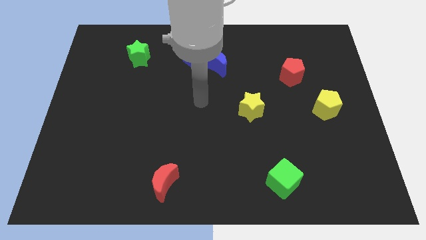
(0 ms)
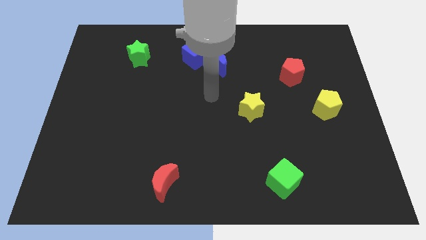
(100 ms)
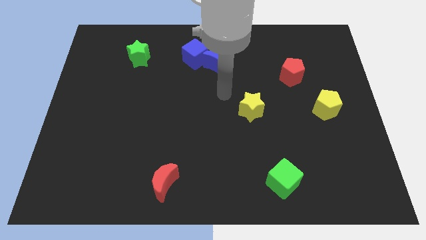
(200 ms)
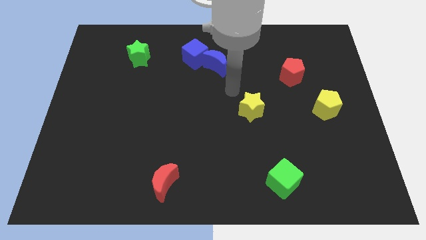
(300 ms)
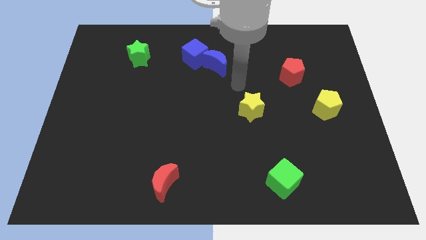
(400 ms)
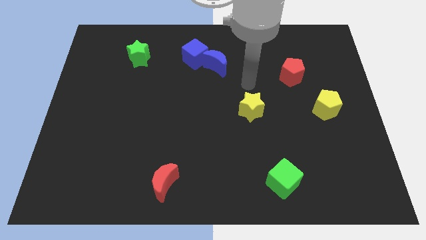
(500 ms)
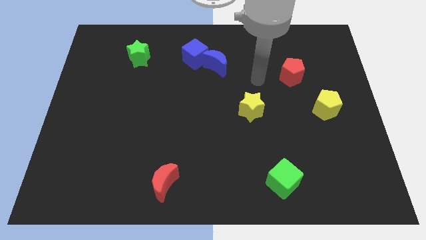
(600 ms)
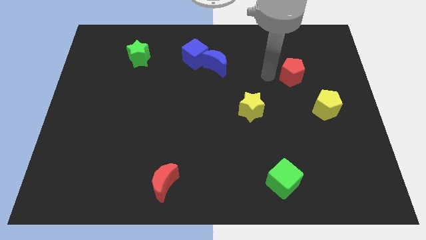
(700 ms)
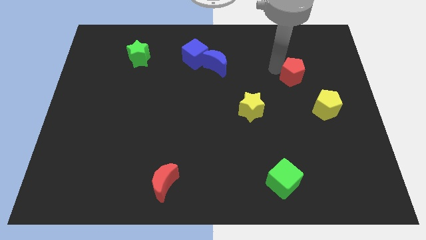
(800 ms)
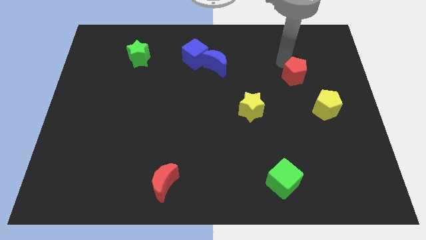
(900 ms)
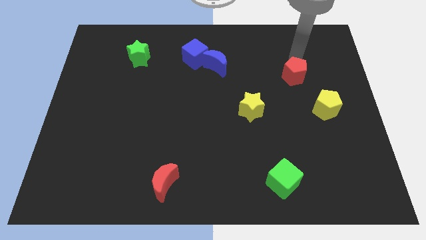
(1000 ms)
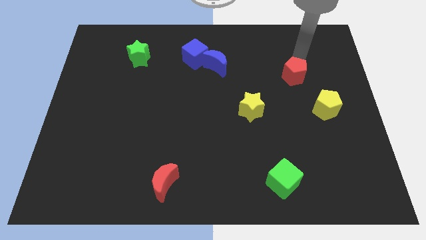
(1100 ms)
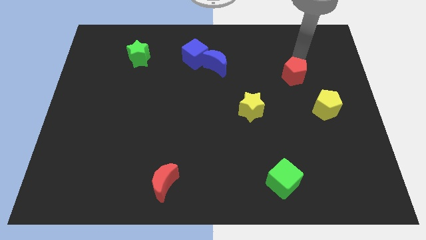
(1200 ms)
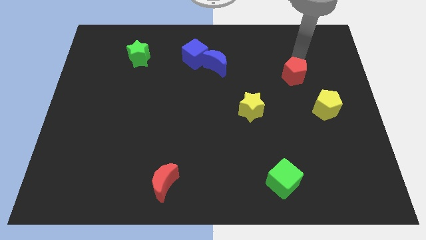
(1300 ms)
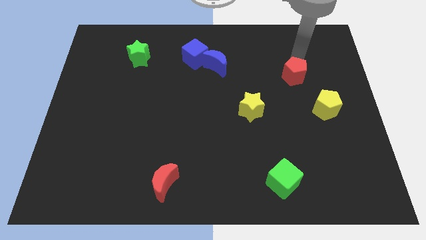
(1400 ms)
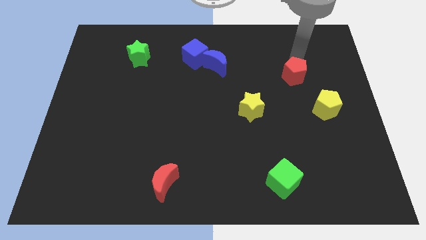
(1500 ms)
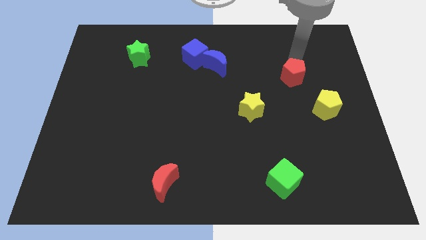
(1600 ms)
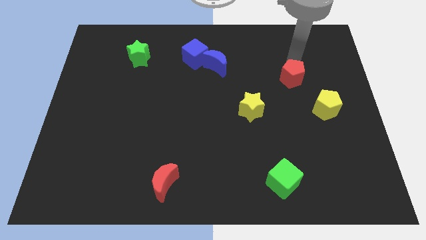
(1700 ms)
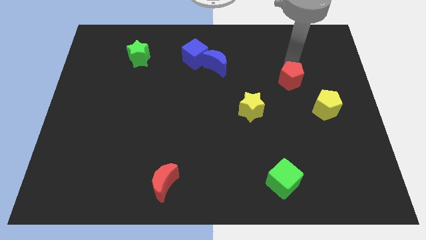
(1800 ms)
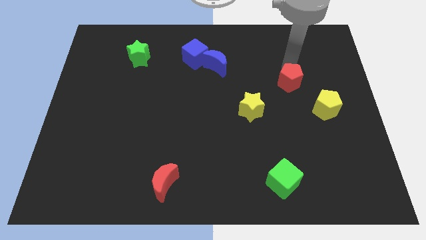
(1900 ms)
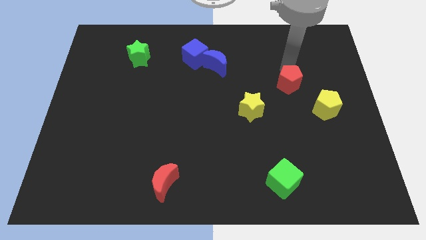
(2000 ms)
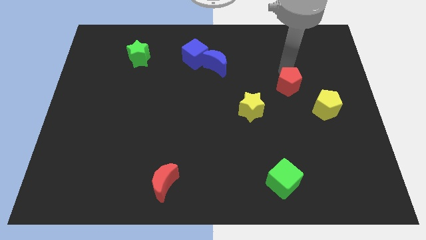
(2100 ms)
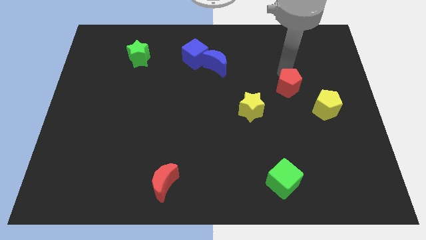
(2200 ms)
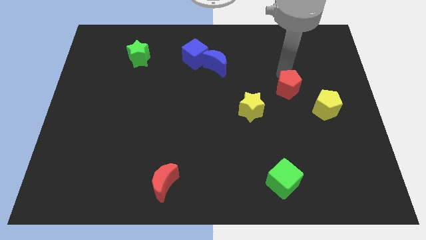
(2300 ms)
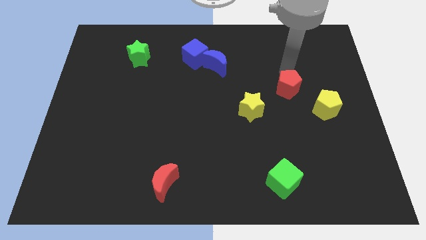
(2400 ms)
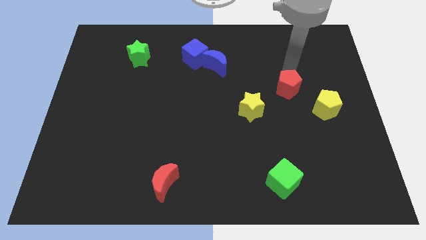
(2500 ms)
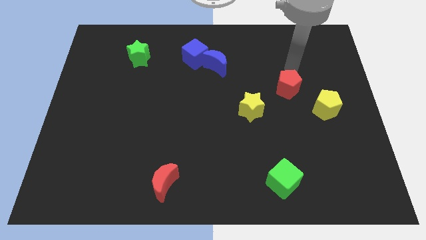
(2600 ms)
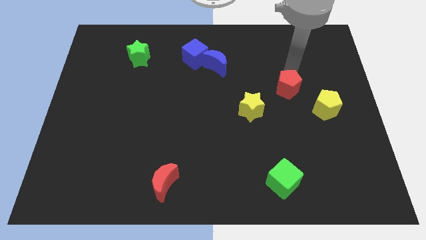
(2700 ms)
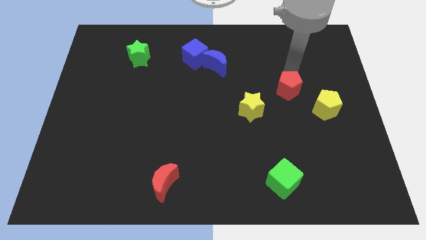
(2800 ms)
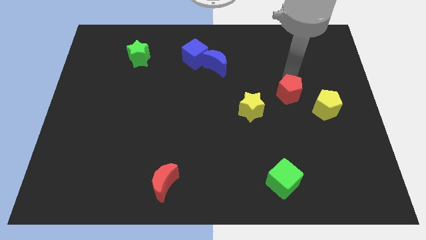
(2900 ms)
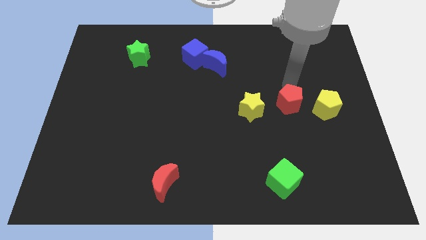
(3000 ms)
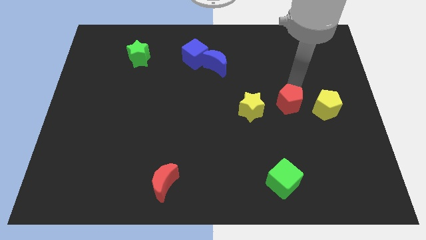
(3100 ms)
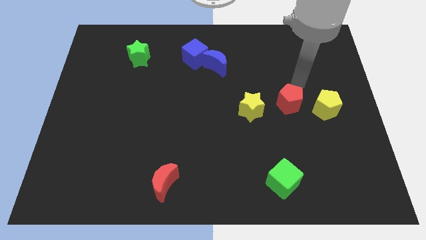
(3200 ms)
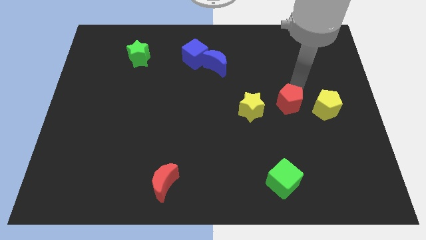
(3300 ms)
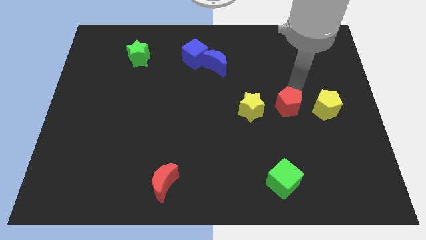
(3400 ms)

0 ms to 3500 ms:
slightly move the red pentagon down and then left

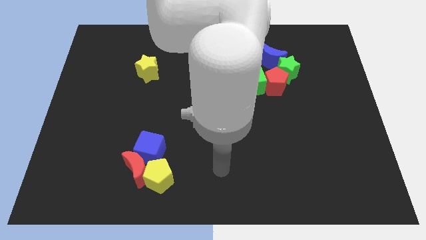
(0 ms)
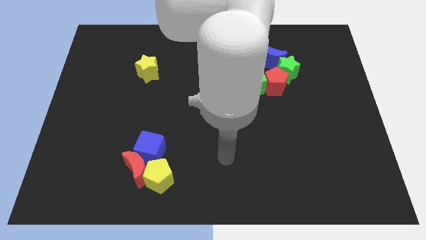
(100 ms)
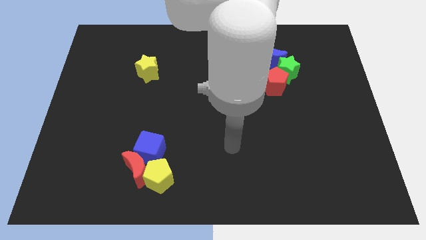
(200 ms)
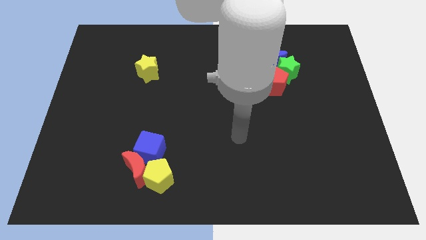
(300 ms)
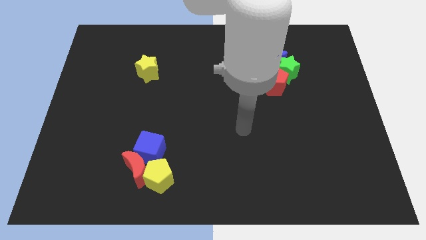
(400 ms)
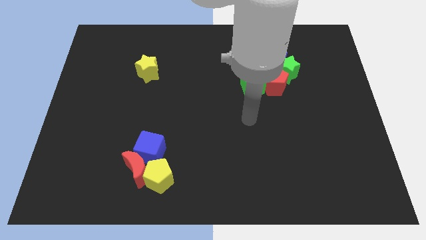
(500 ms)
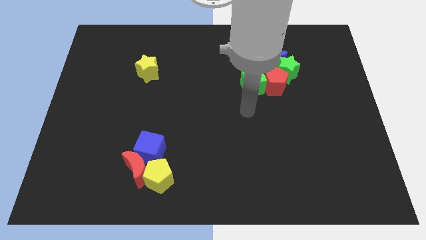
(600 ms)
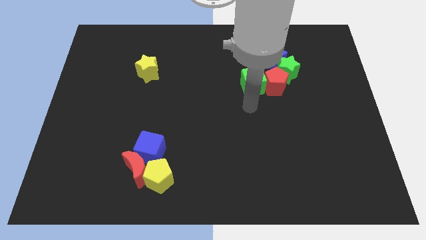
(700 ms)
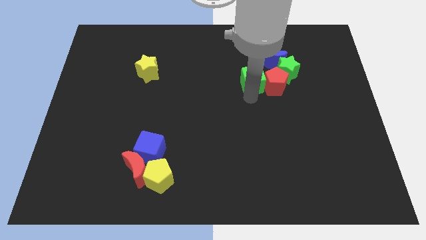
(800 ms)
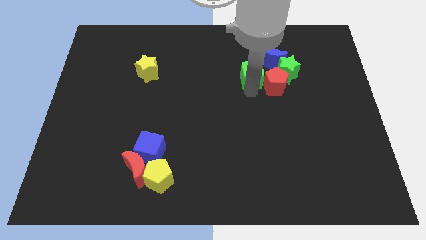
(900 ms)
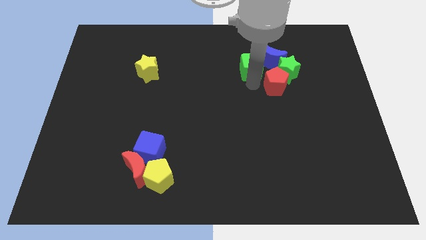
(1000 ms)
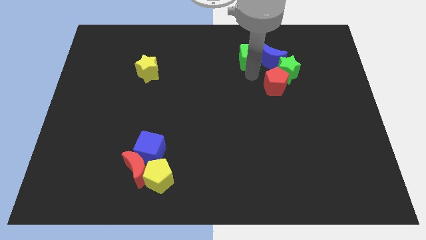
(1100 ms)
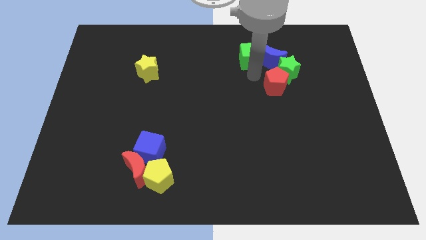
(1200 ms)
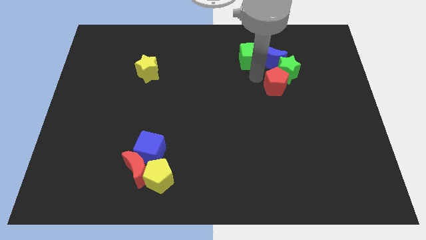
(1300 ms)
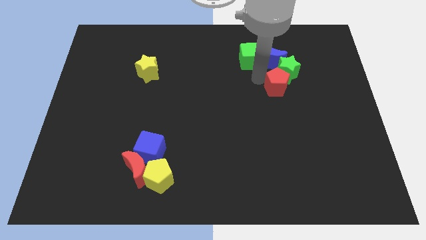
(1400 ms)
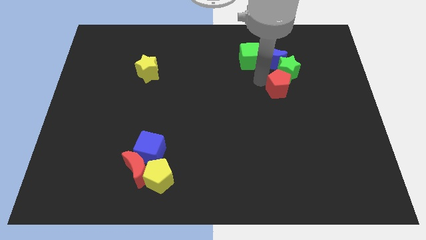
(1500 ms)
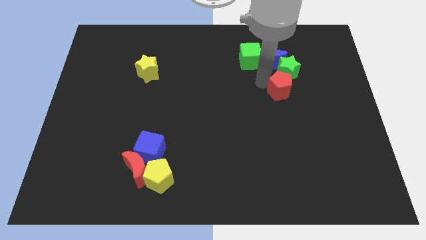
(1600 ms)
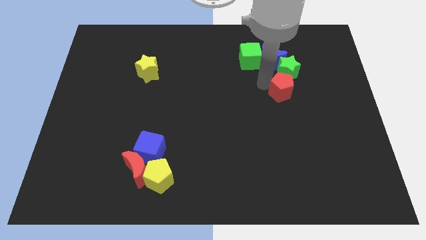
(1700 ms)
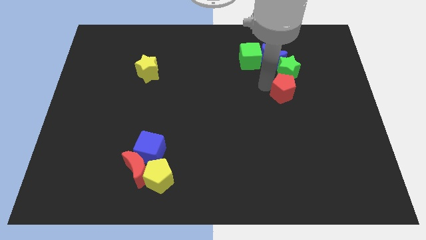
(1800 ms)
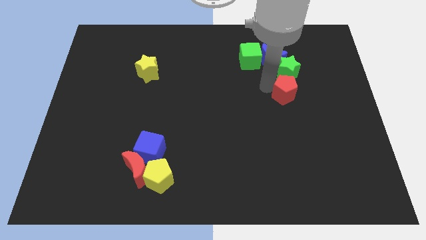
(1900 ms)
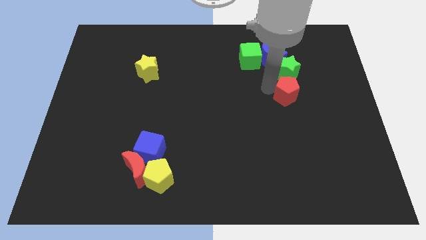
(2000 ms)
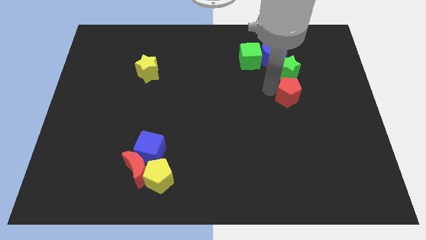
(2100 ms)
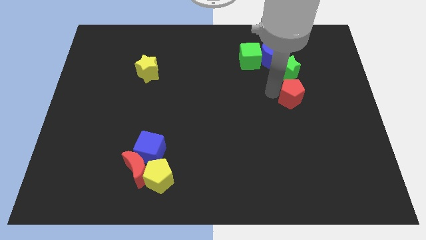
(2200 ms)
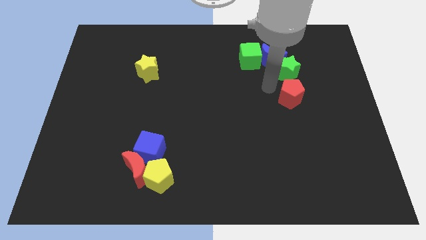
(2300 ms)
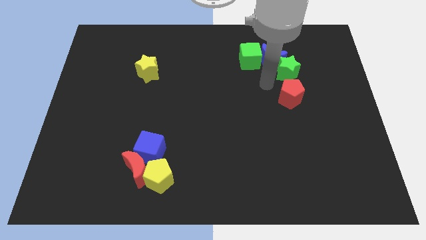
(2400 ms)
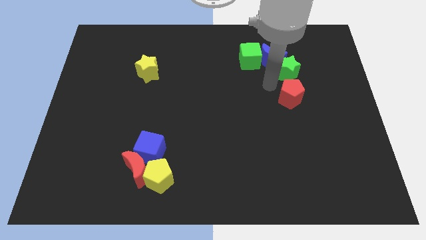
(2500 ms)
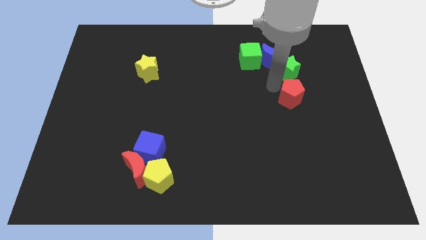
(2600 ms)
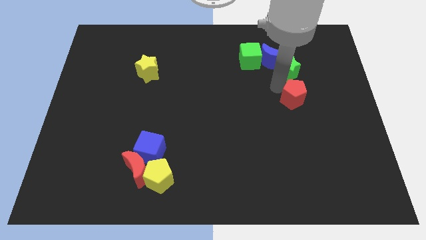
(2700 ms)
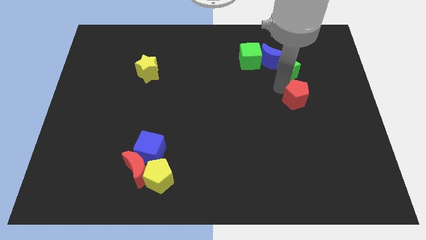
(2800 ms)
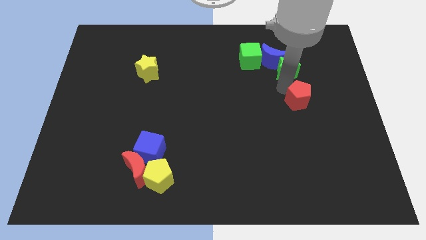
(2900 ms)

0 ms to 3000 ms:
slightly move the red pentagon diagonally down and right

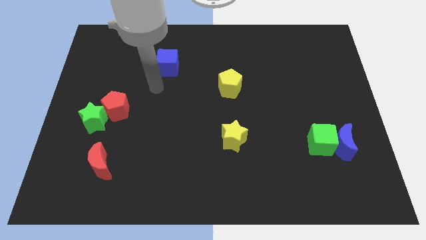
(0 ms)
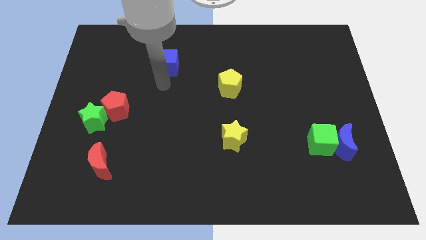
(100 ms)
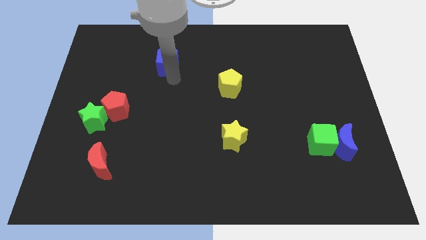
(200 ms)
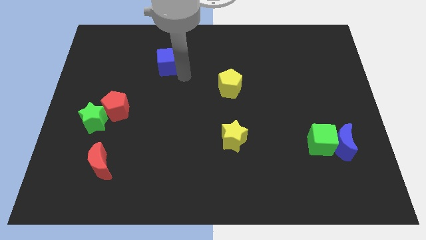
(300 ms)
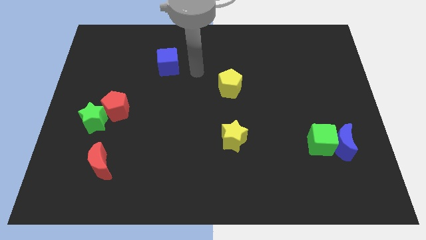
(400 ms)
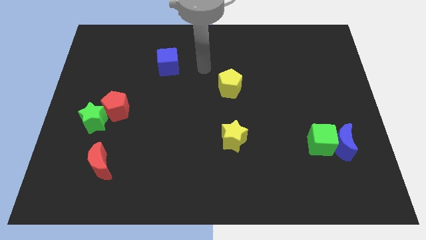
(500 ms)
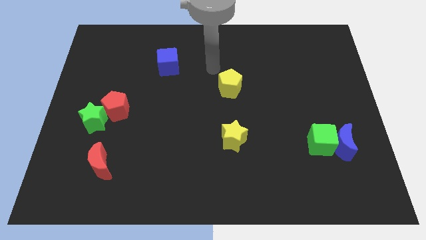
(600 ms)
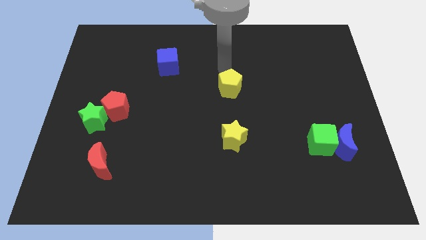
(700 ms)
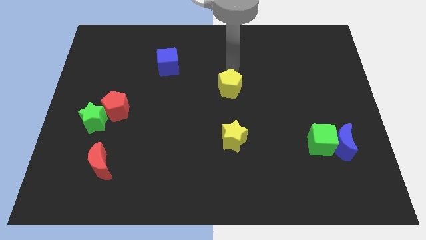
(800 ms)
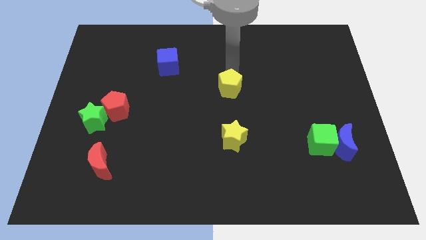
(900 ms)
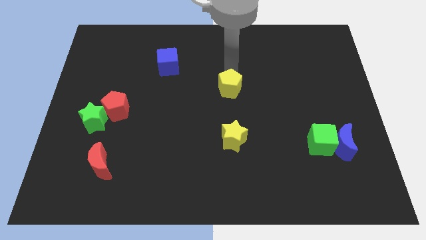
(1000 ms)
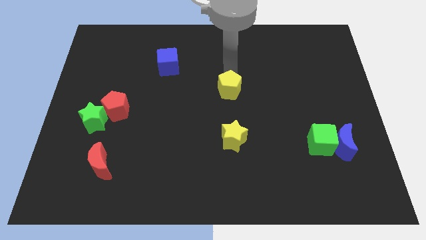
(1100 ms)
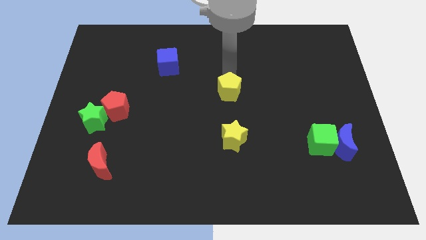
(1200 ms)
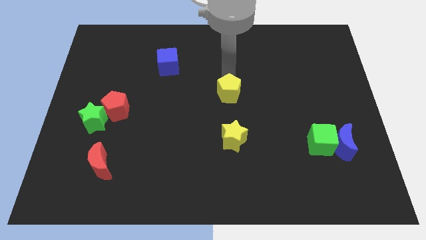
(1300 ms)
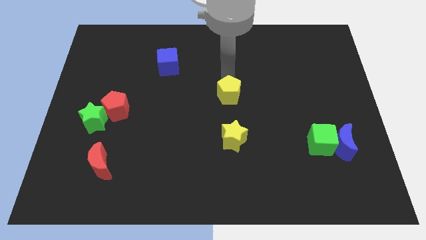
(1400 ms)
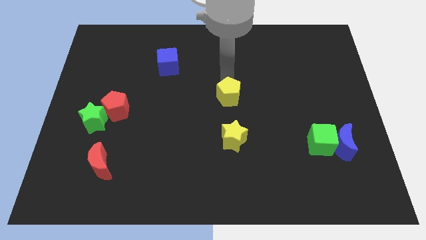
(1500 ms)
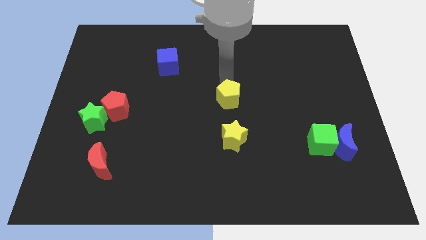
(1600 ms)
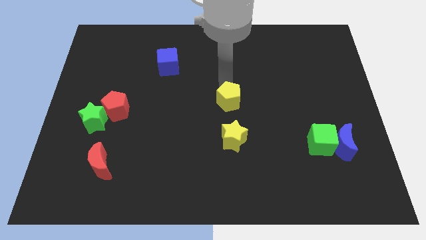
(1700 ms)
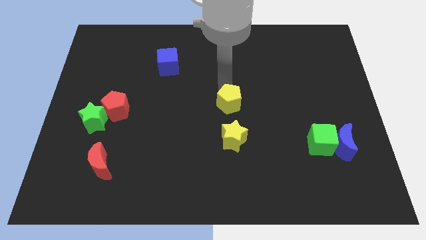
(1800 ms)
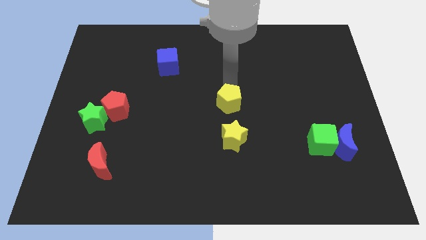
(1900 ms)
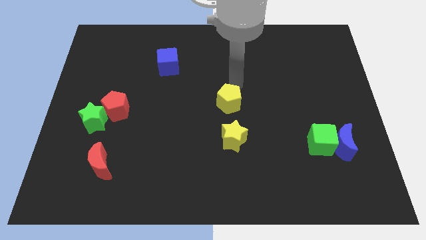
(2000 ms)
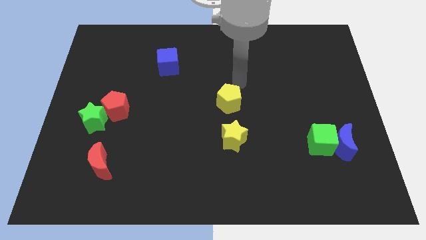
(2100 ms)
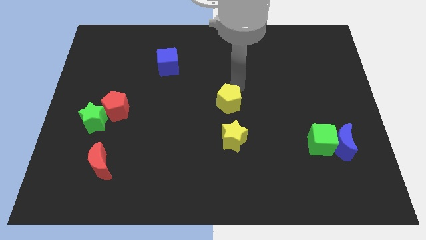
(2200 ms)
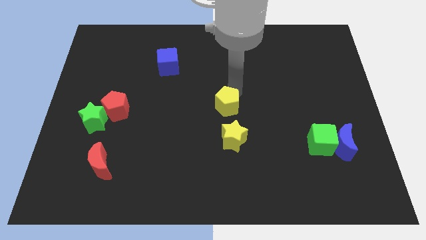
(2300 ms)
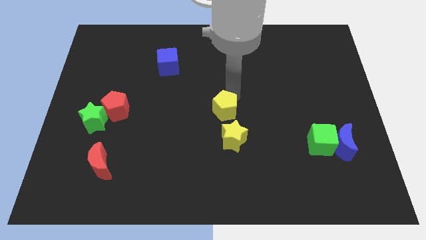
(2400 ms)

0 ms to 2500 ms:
move the yellow pentagon a little bit down
